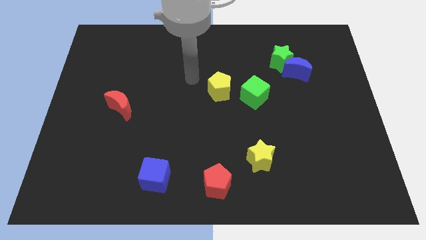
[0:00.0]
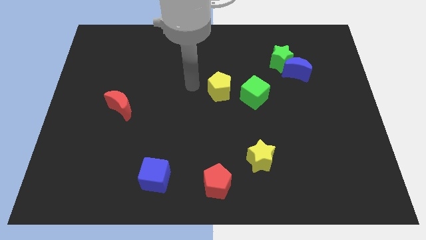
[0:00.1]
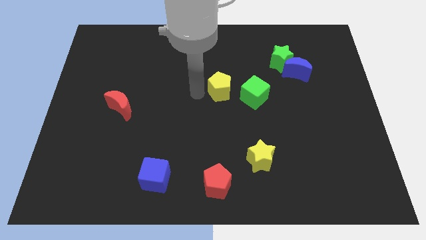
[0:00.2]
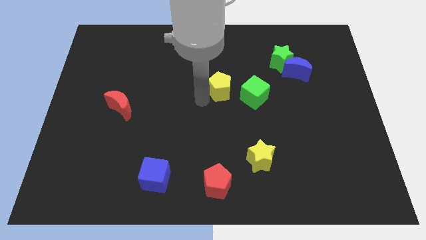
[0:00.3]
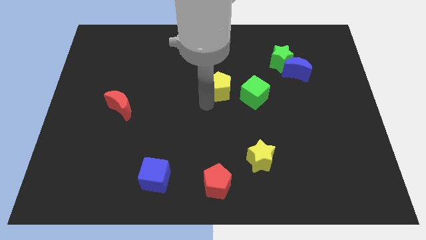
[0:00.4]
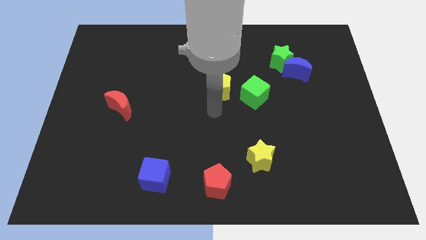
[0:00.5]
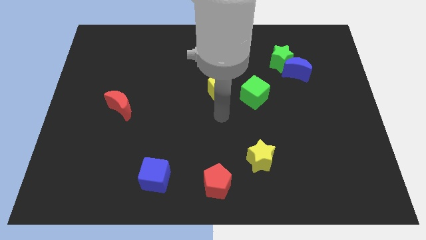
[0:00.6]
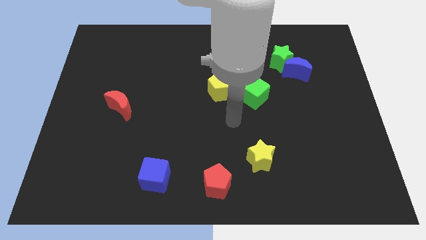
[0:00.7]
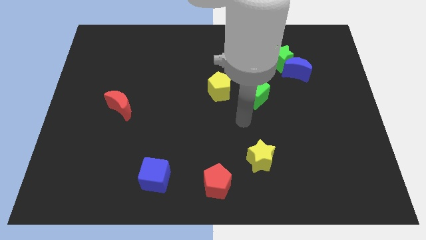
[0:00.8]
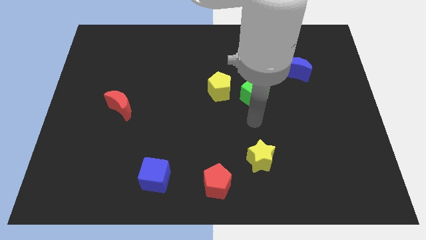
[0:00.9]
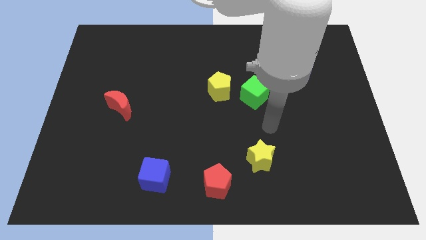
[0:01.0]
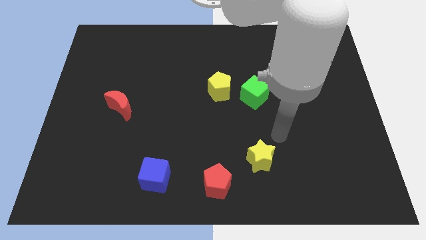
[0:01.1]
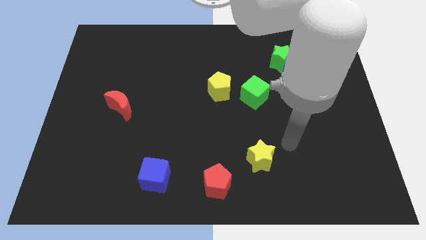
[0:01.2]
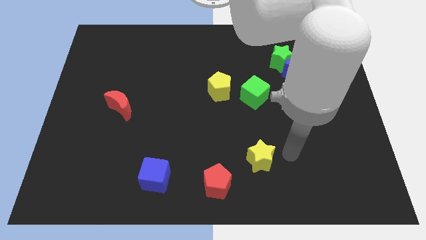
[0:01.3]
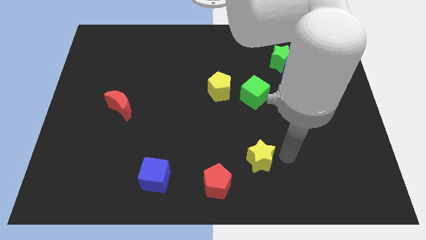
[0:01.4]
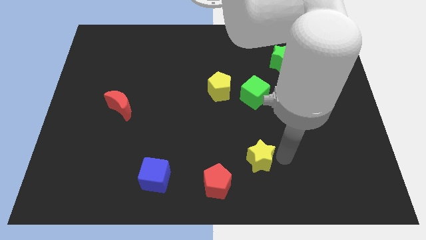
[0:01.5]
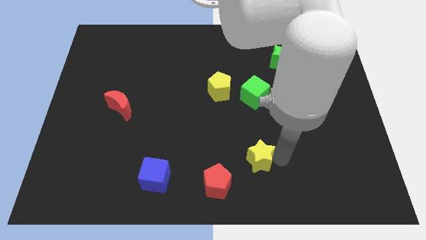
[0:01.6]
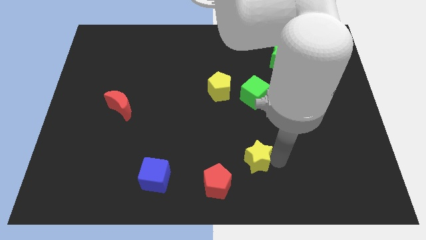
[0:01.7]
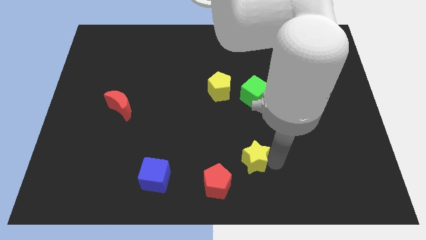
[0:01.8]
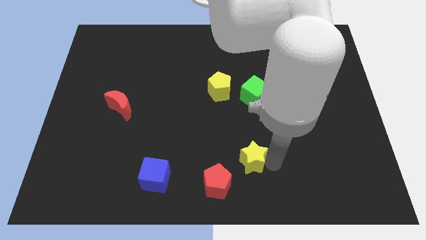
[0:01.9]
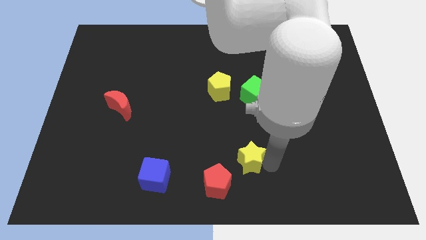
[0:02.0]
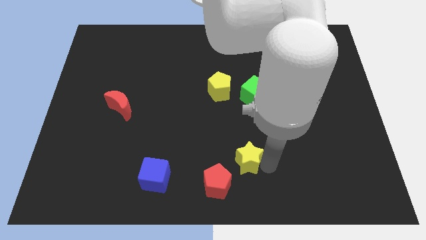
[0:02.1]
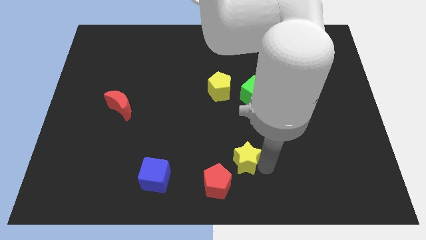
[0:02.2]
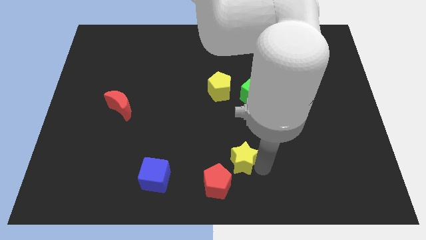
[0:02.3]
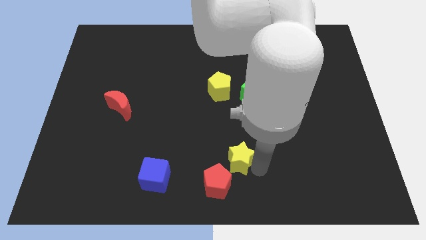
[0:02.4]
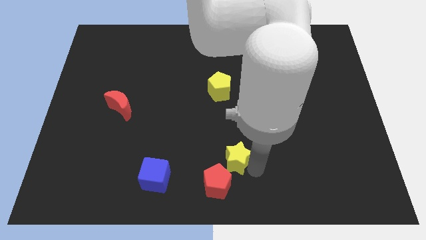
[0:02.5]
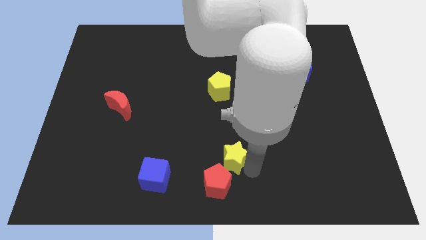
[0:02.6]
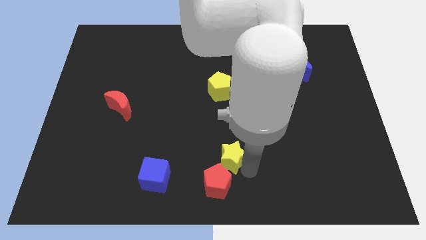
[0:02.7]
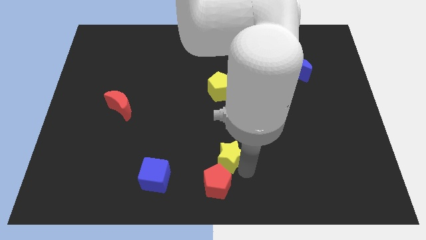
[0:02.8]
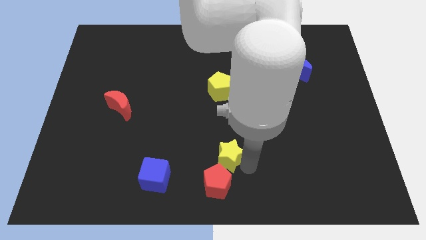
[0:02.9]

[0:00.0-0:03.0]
push the yellow star a little bit to the left

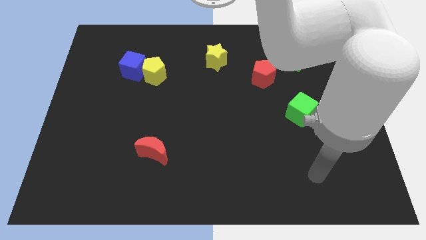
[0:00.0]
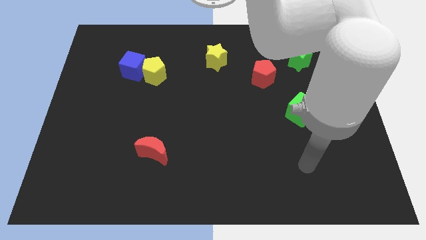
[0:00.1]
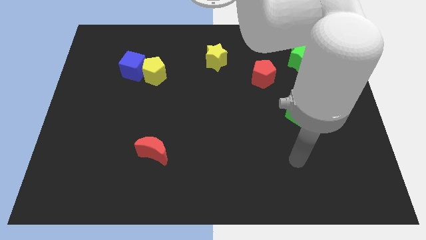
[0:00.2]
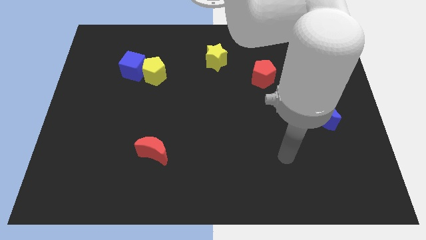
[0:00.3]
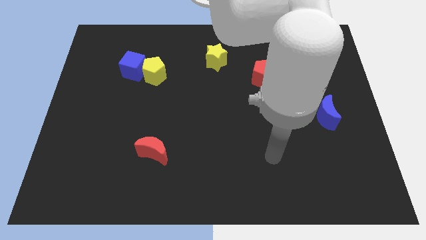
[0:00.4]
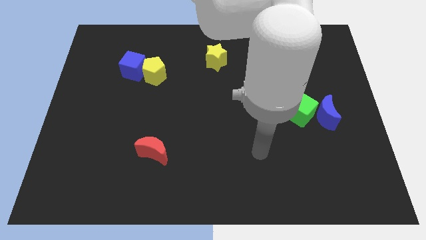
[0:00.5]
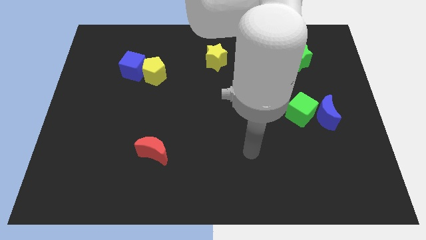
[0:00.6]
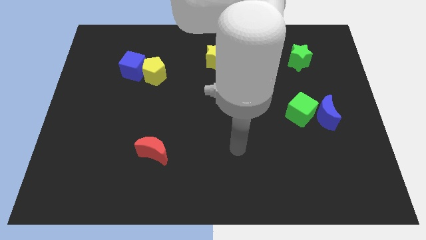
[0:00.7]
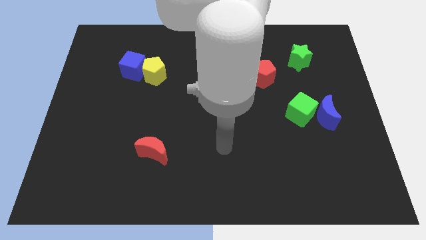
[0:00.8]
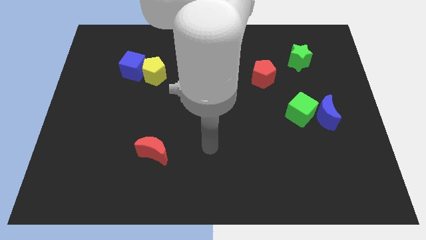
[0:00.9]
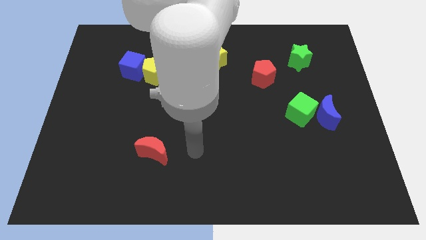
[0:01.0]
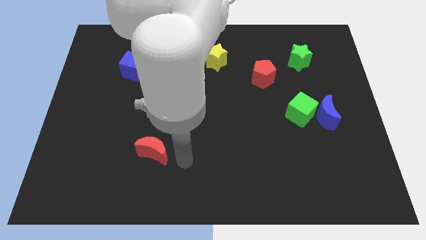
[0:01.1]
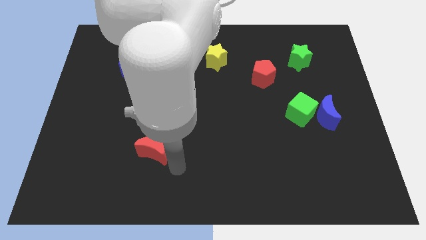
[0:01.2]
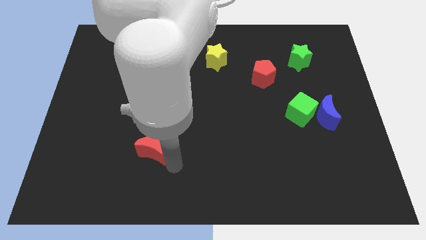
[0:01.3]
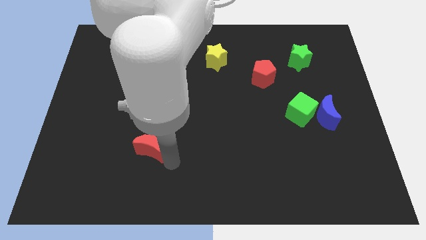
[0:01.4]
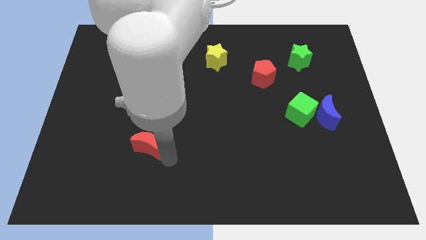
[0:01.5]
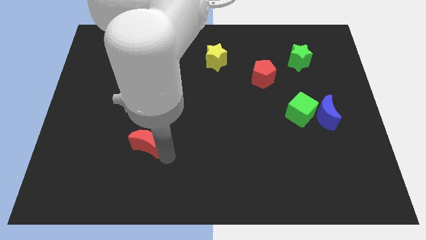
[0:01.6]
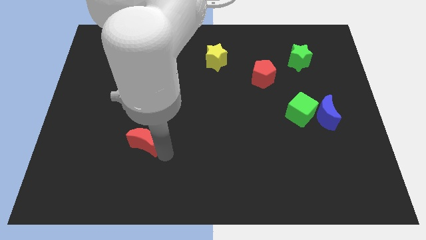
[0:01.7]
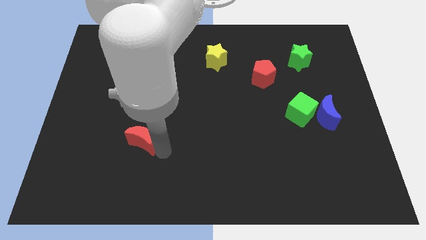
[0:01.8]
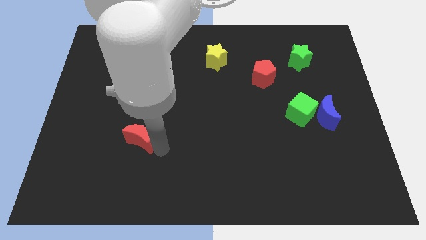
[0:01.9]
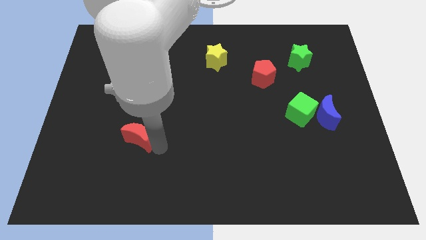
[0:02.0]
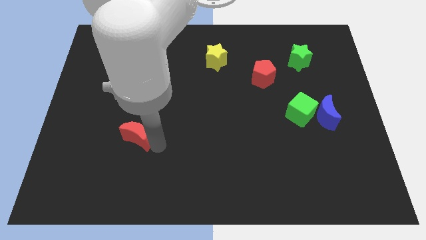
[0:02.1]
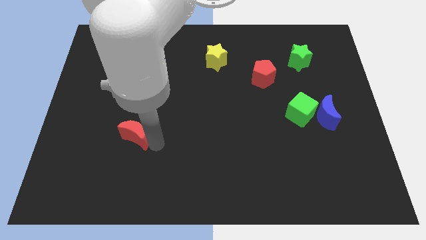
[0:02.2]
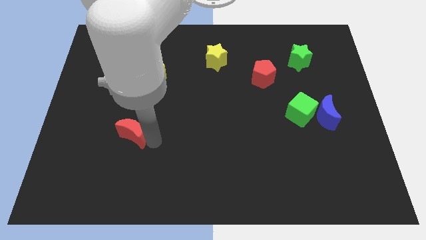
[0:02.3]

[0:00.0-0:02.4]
push the red moon somewhat upwards and left

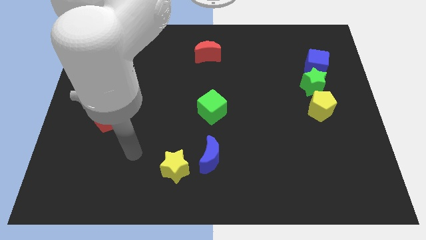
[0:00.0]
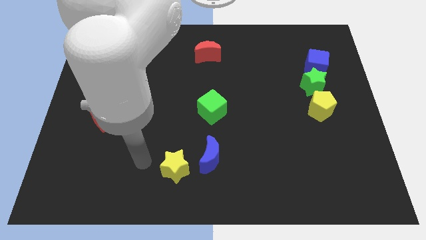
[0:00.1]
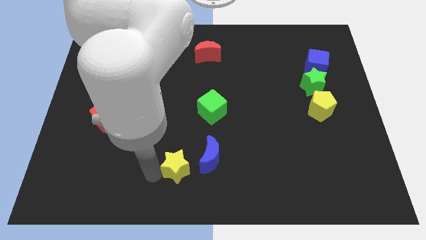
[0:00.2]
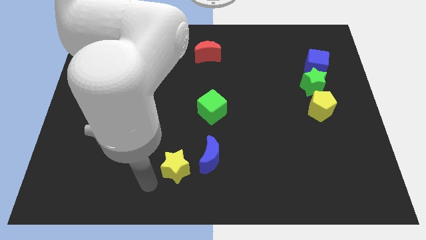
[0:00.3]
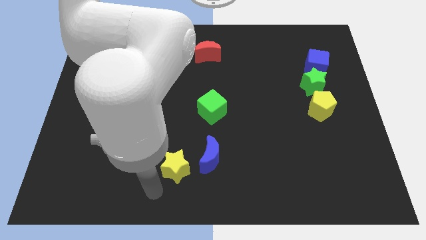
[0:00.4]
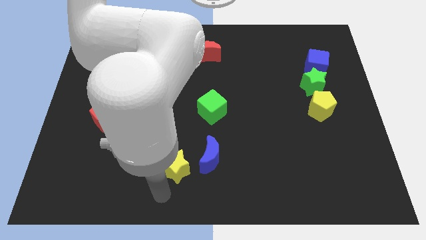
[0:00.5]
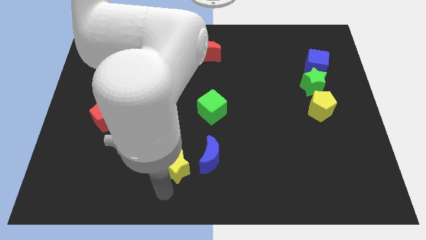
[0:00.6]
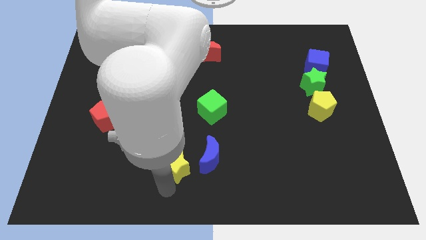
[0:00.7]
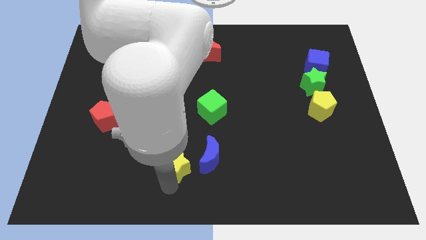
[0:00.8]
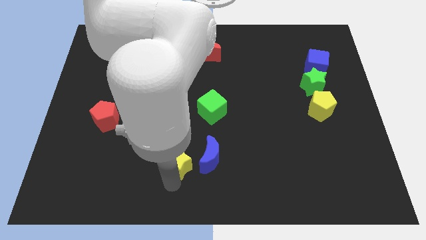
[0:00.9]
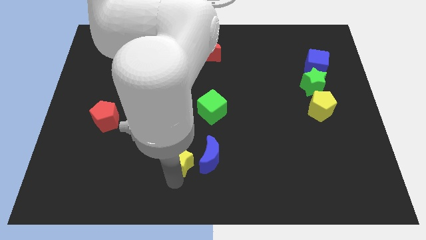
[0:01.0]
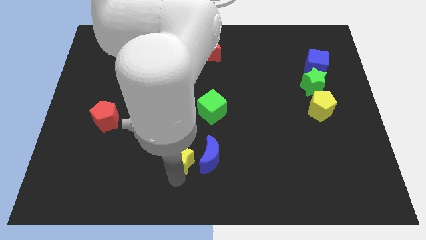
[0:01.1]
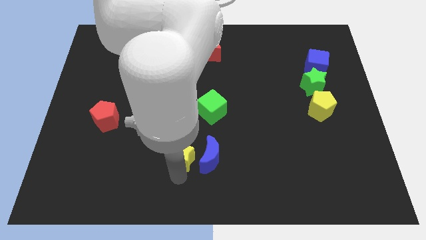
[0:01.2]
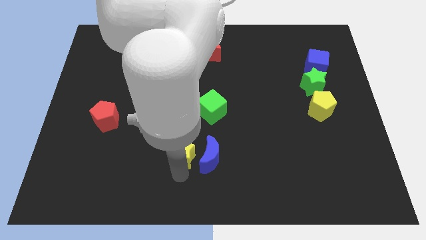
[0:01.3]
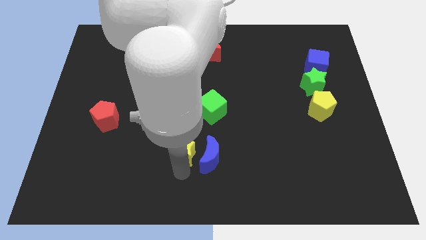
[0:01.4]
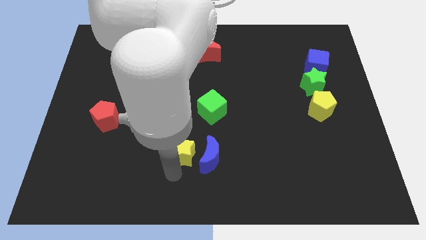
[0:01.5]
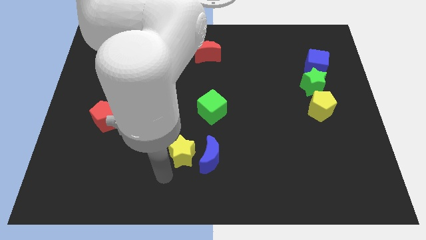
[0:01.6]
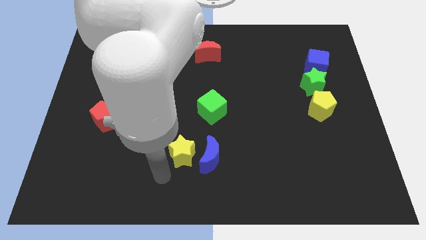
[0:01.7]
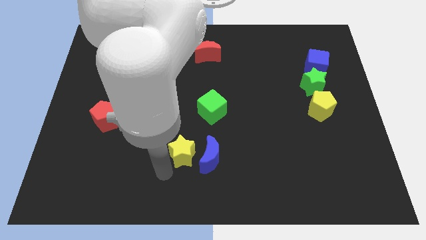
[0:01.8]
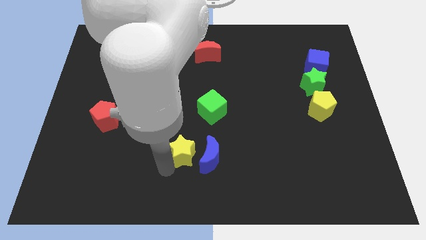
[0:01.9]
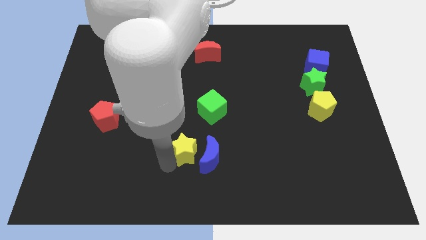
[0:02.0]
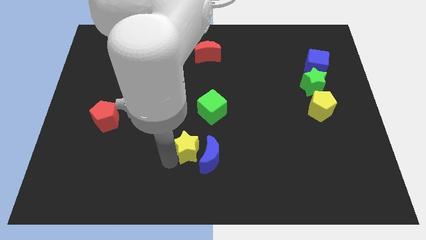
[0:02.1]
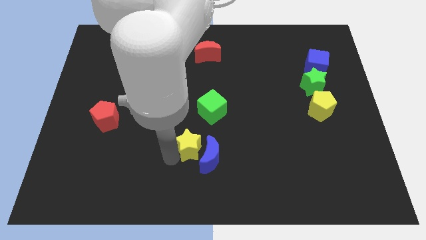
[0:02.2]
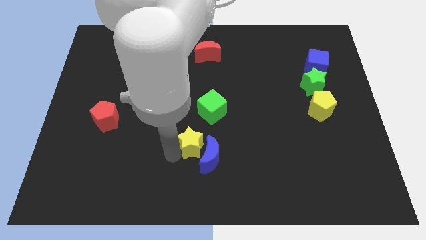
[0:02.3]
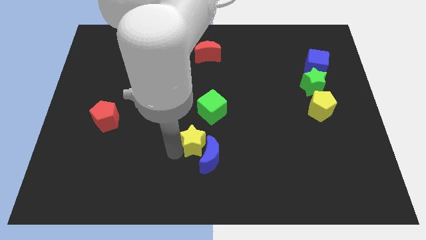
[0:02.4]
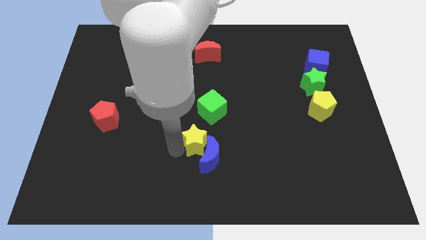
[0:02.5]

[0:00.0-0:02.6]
slide the yellow star upwards and then right somewhat

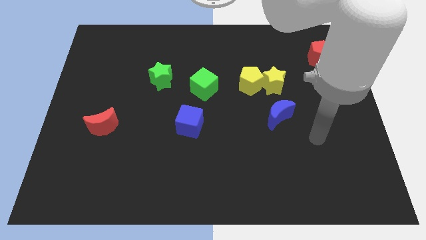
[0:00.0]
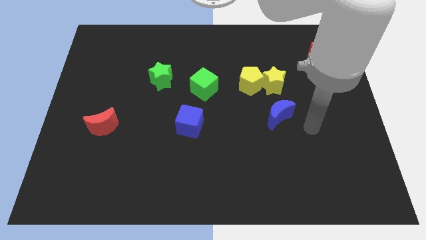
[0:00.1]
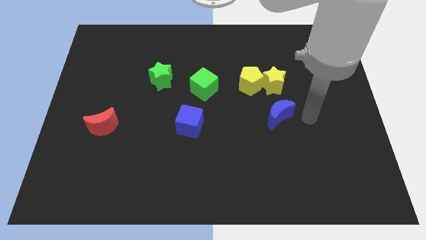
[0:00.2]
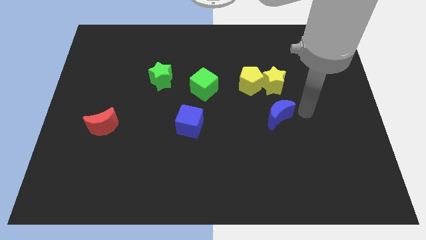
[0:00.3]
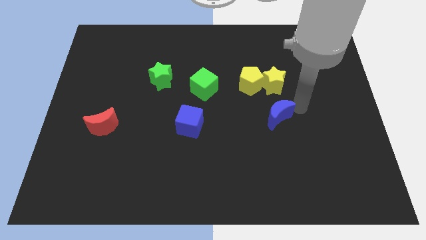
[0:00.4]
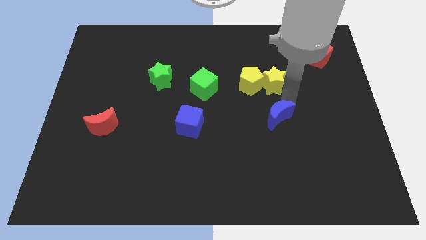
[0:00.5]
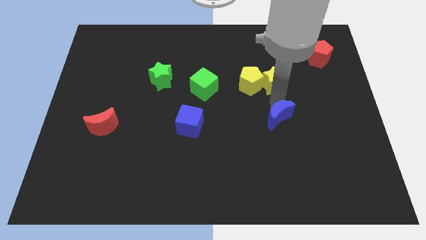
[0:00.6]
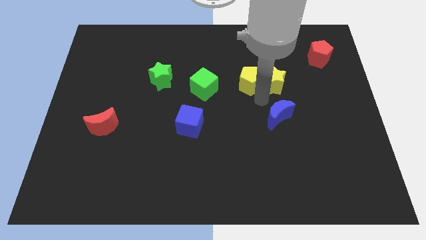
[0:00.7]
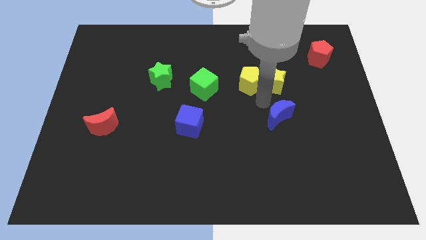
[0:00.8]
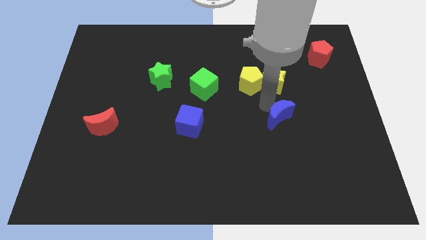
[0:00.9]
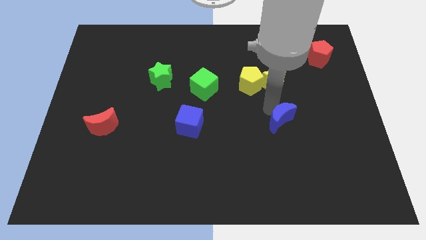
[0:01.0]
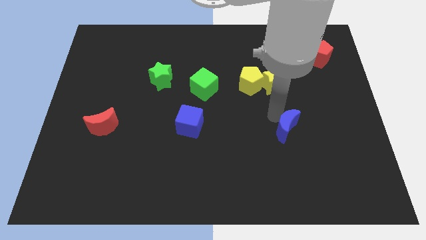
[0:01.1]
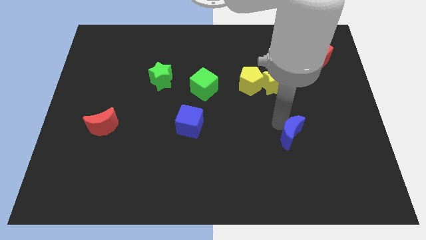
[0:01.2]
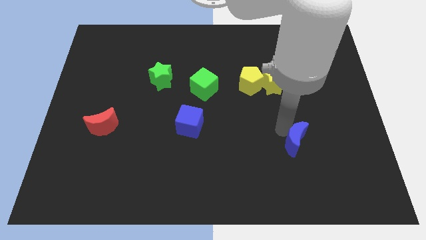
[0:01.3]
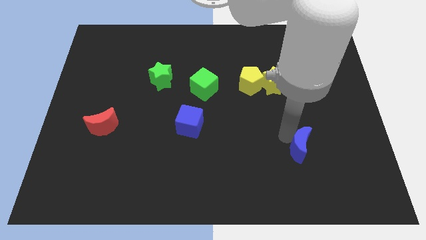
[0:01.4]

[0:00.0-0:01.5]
move the blue moon down and right somewhat
